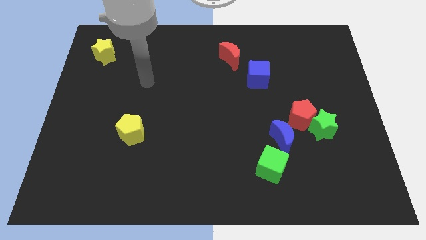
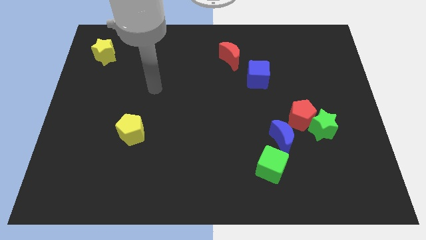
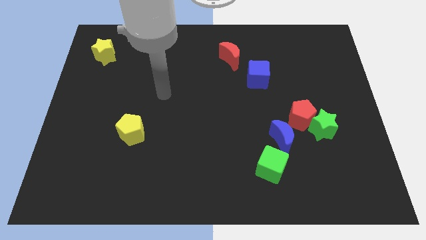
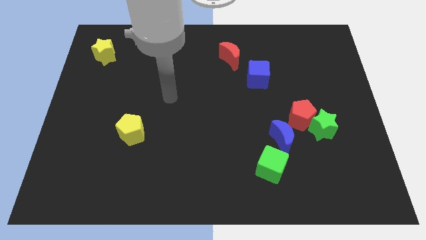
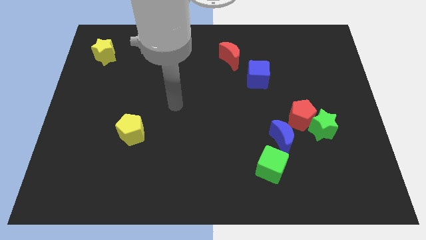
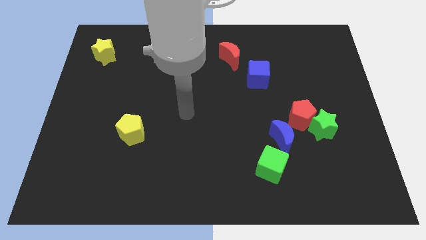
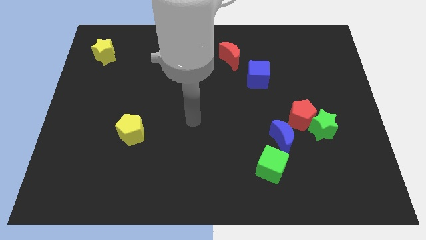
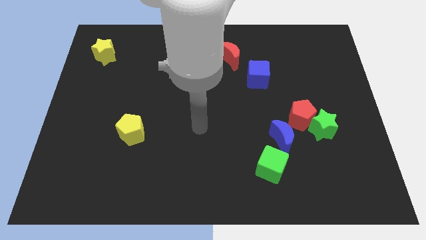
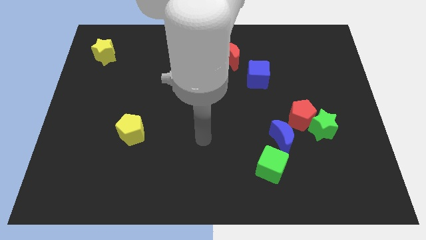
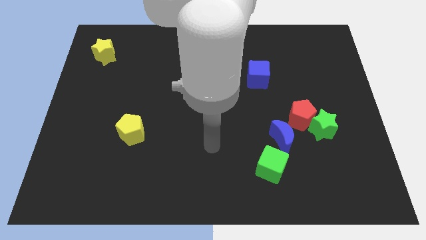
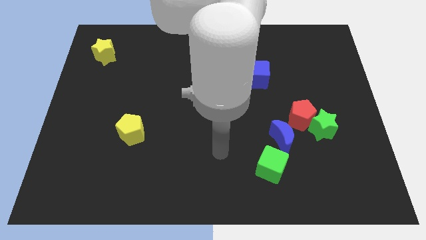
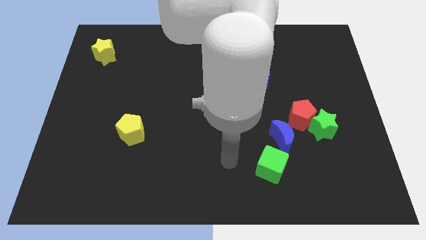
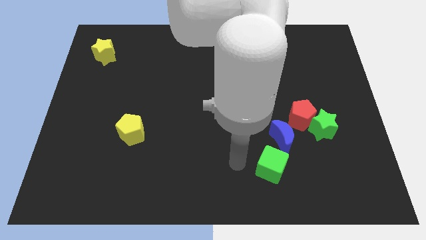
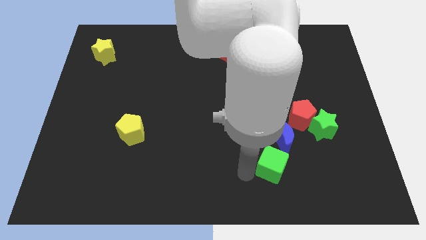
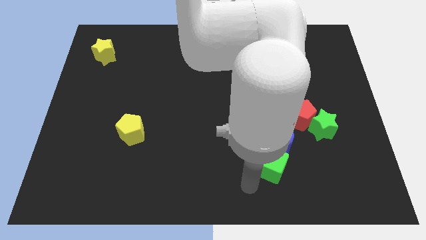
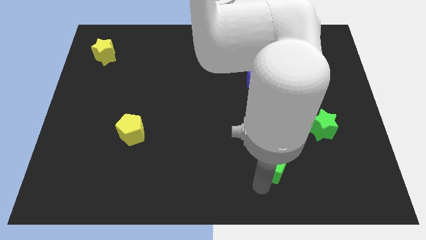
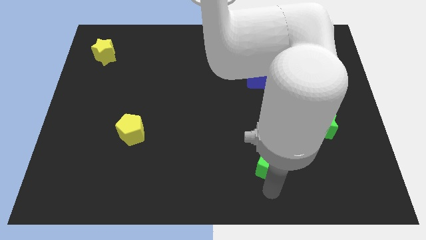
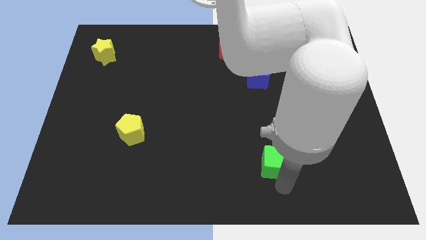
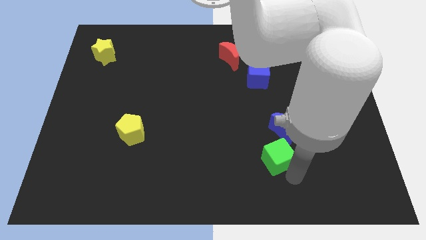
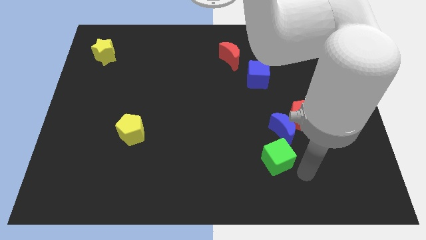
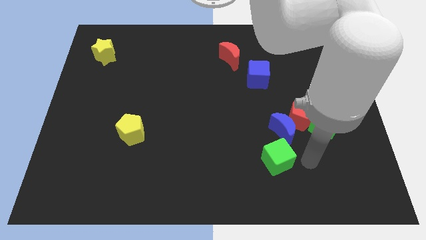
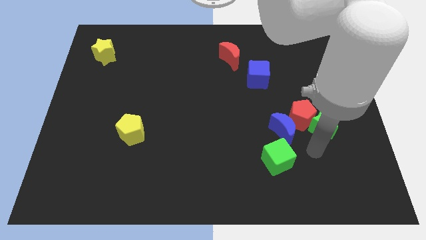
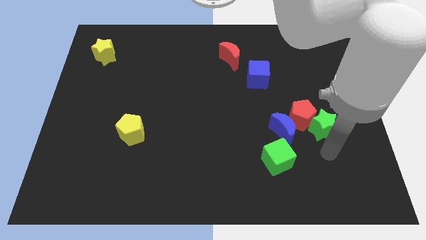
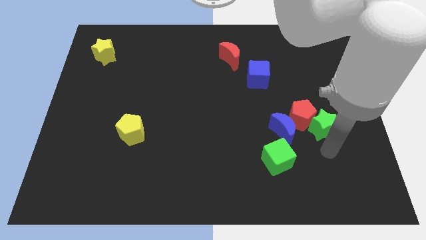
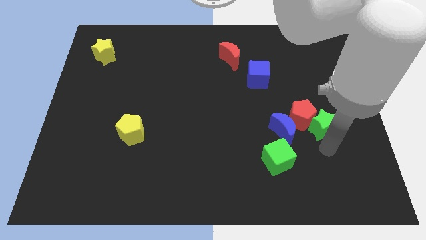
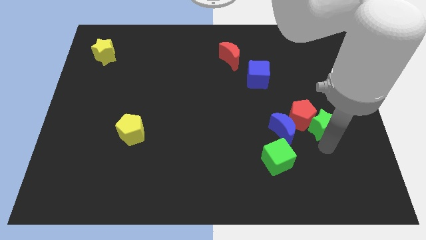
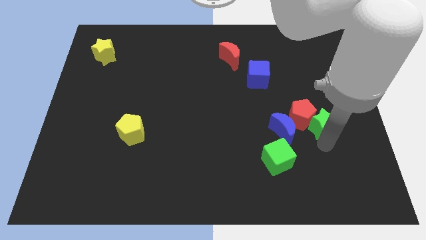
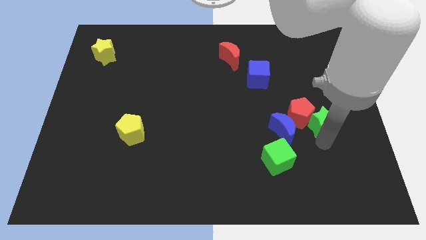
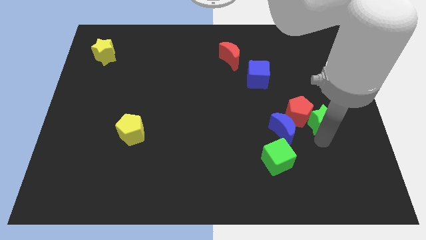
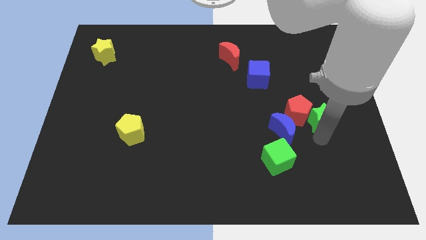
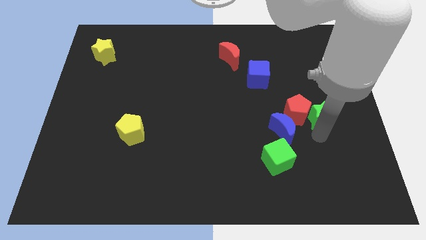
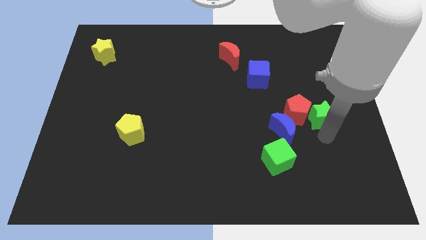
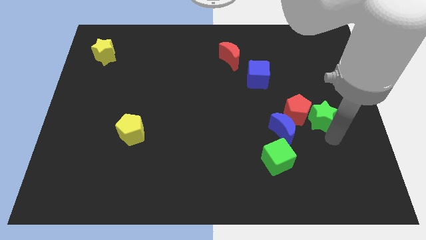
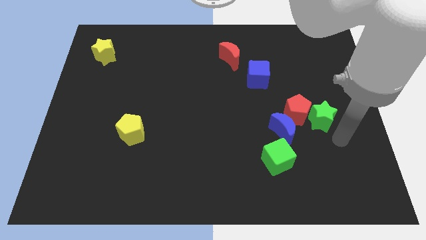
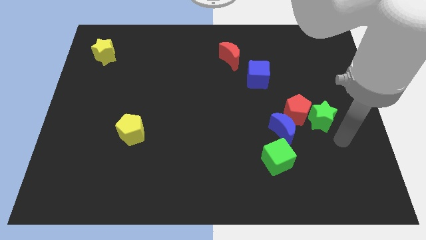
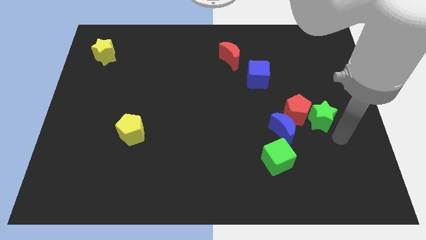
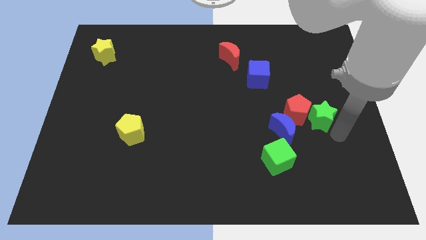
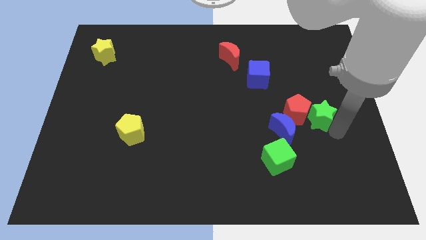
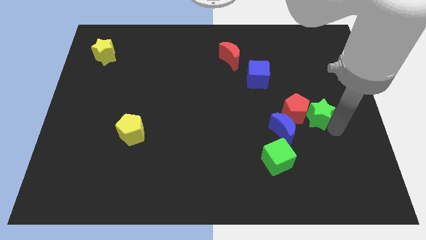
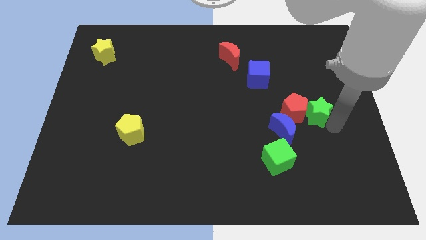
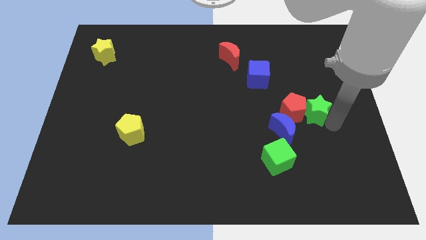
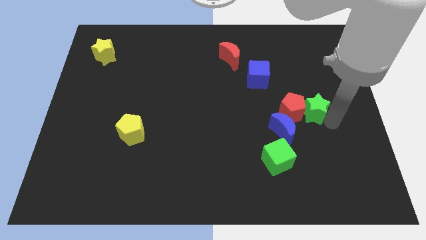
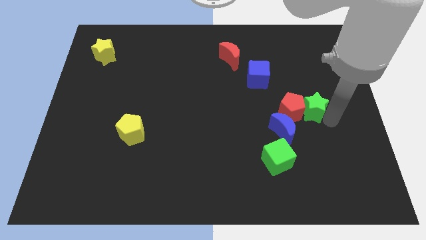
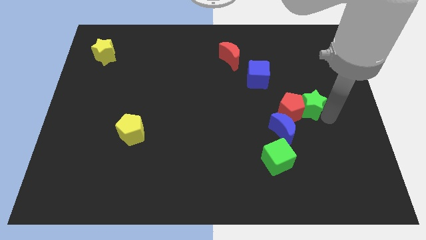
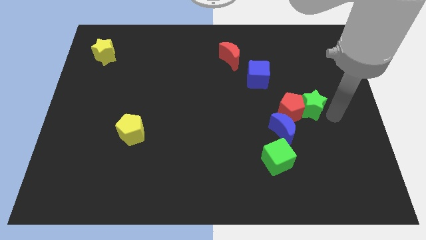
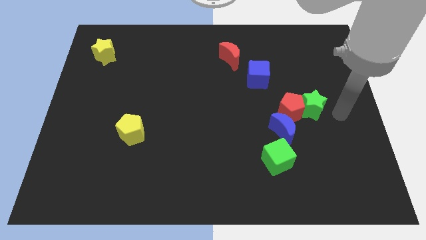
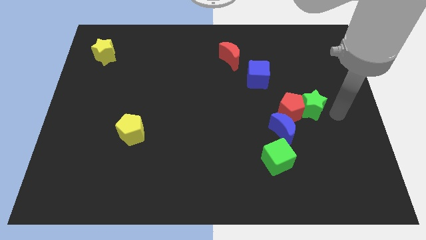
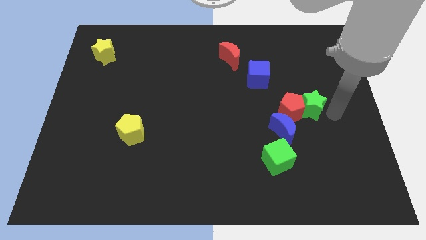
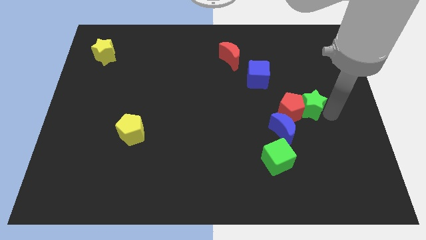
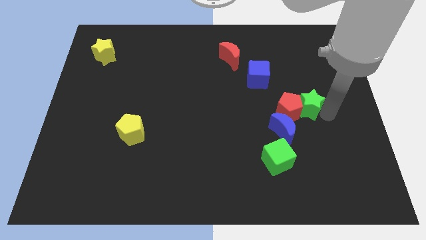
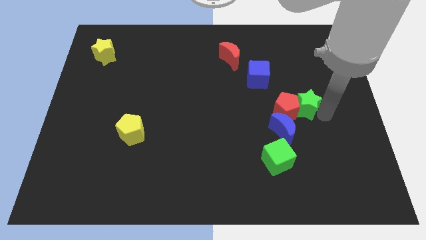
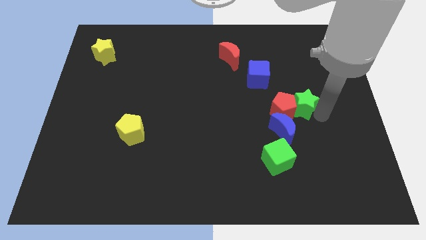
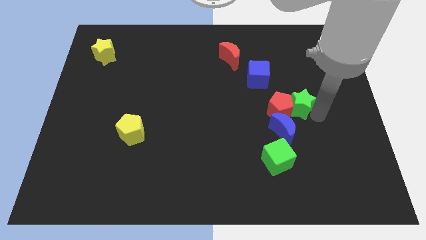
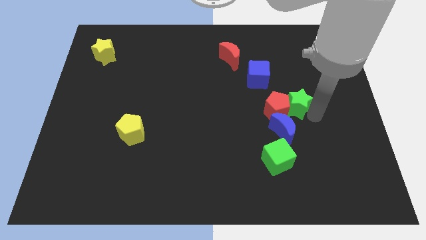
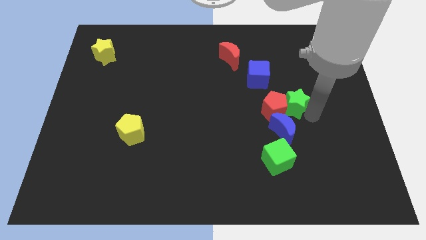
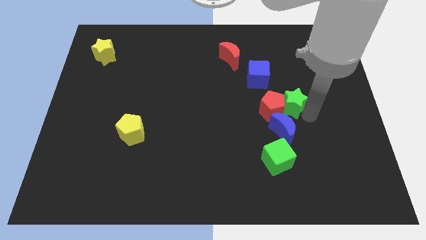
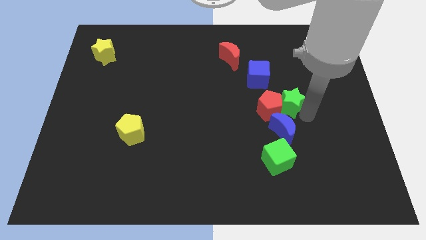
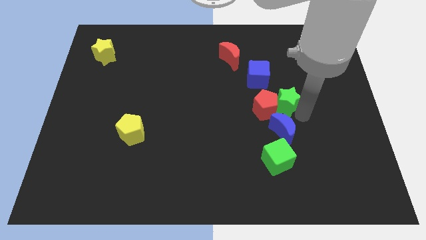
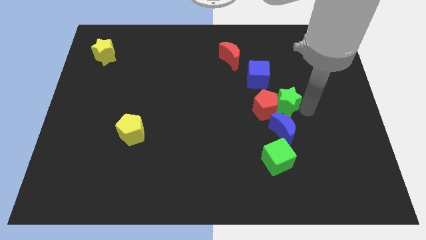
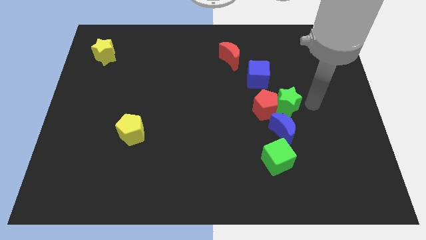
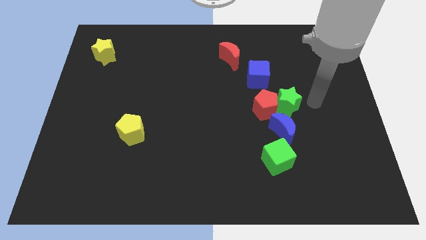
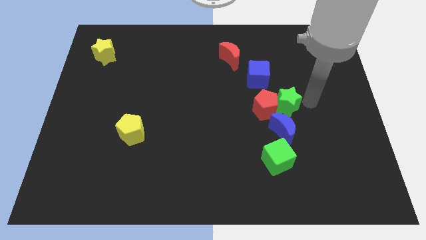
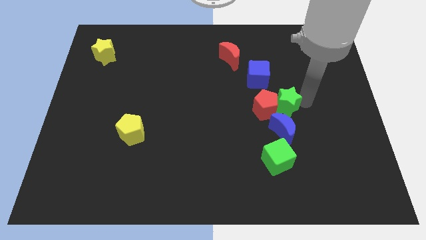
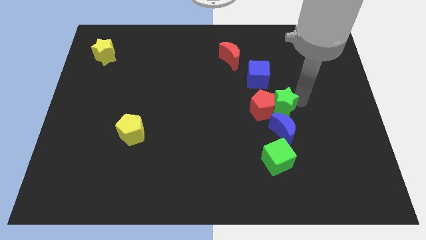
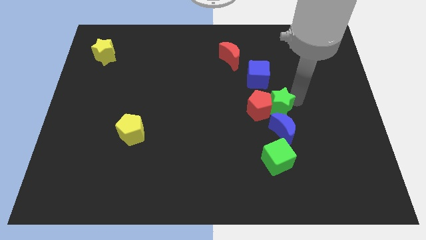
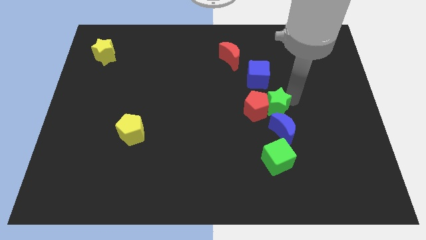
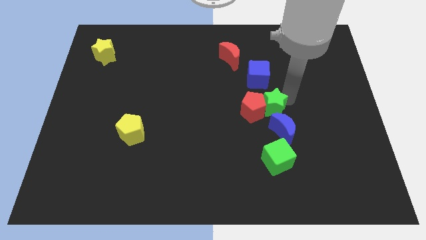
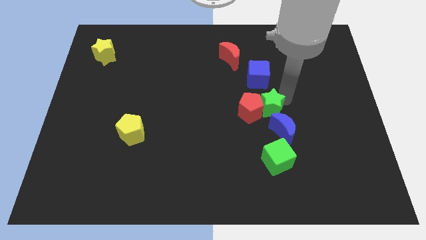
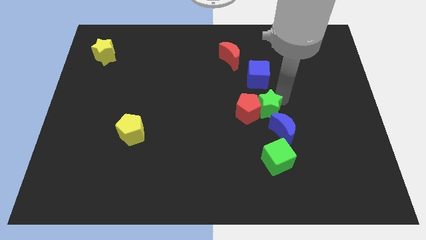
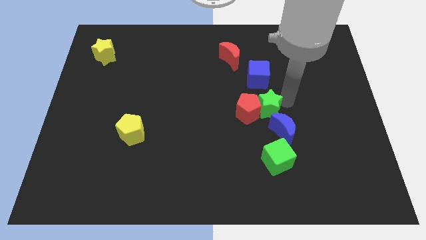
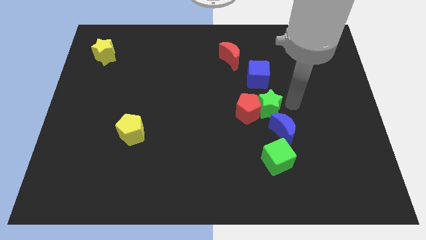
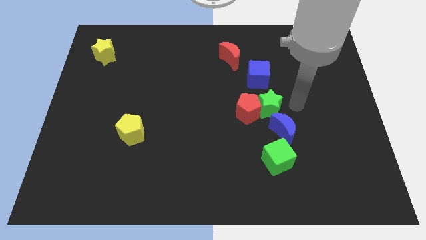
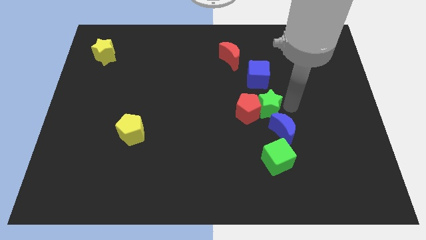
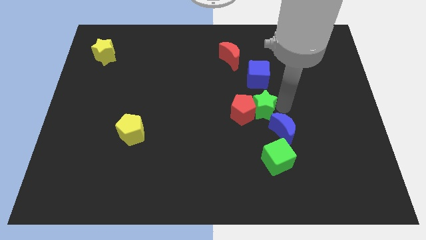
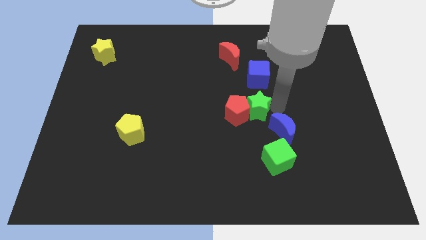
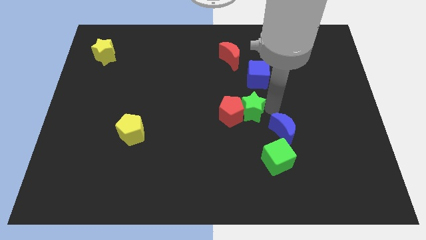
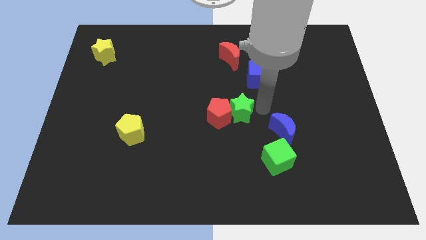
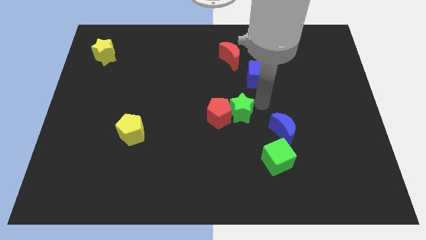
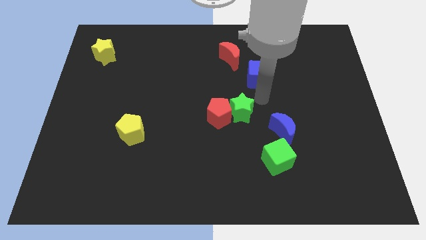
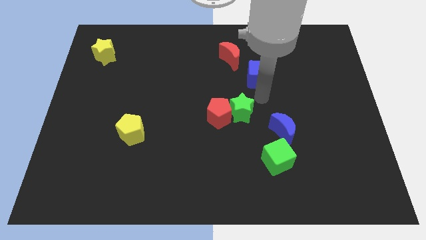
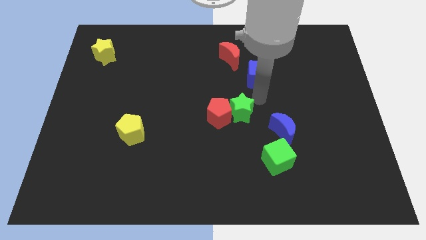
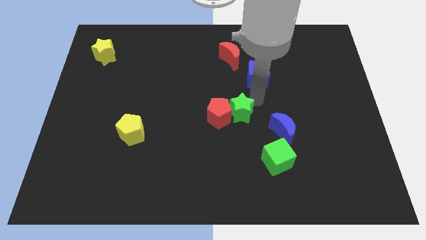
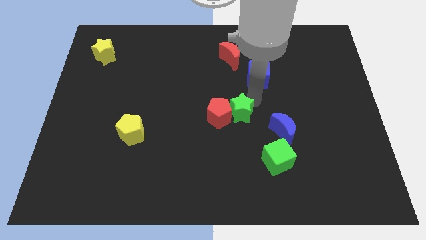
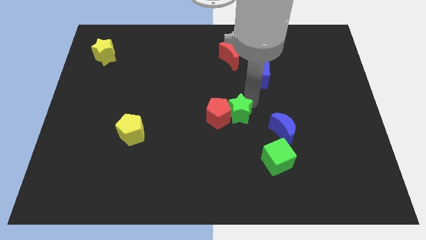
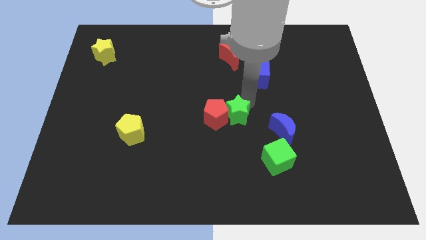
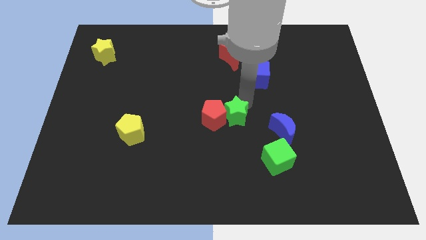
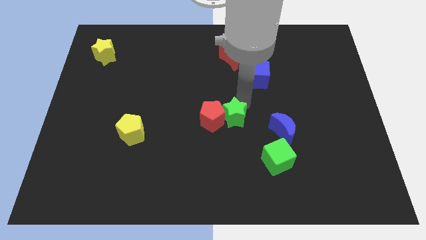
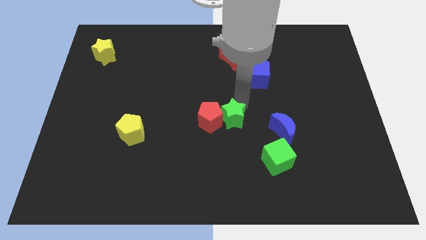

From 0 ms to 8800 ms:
slide the green star to the left
